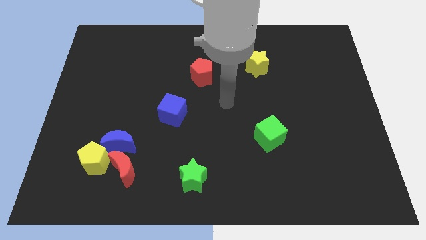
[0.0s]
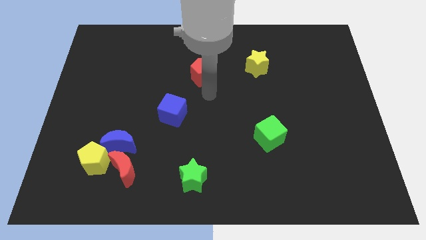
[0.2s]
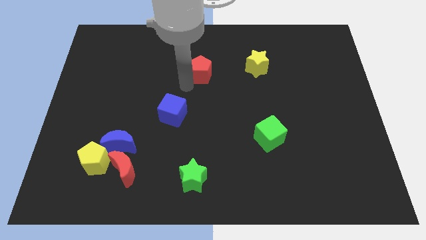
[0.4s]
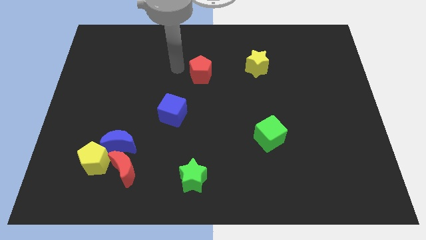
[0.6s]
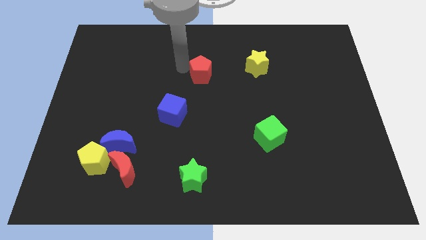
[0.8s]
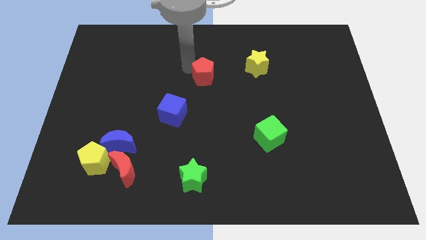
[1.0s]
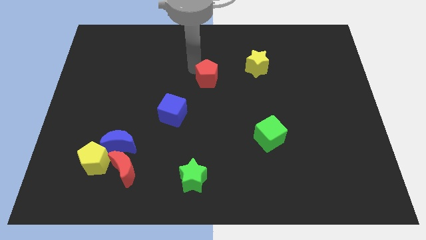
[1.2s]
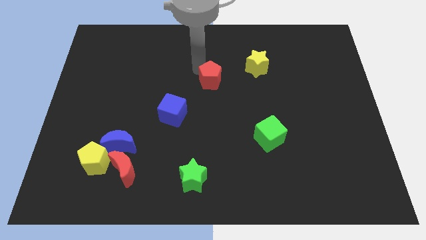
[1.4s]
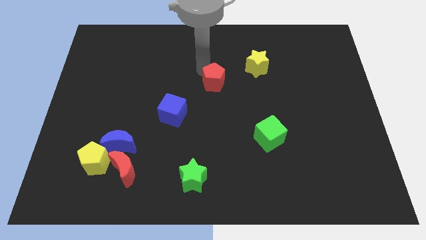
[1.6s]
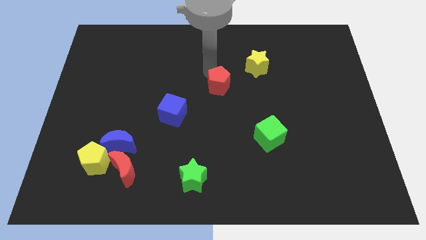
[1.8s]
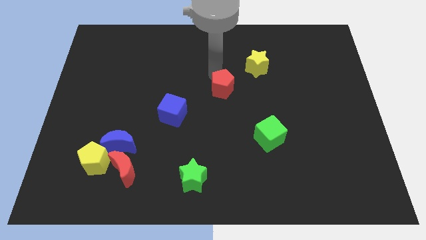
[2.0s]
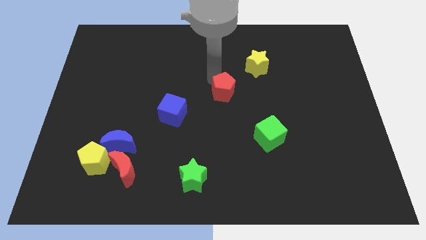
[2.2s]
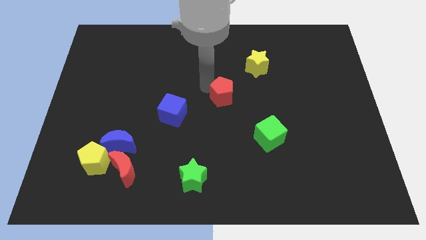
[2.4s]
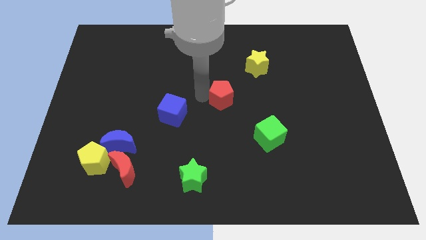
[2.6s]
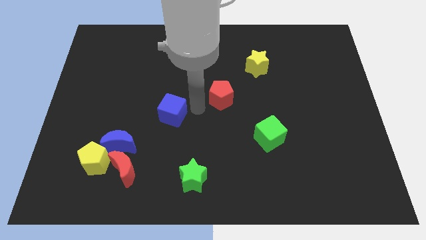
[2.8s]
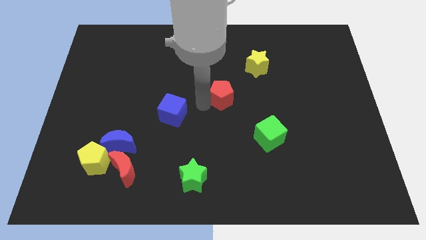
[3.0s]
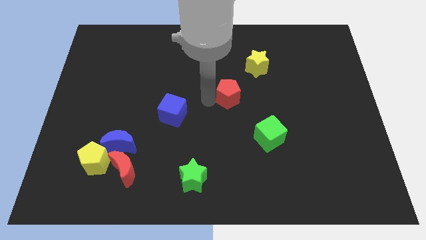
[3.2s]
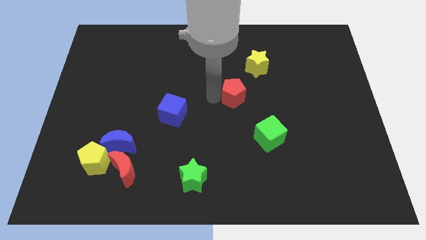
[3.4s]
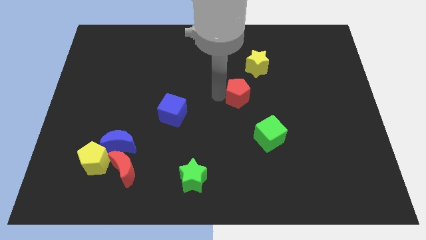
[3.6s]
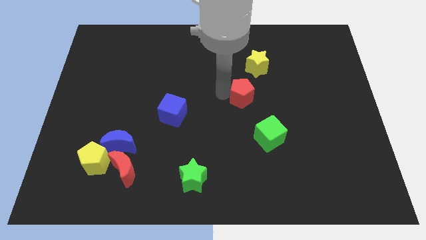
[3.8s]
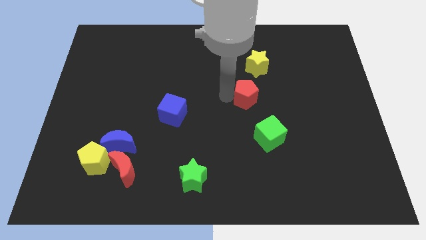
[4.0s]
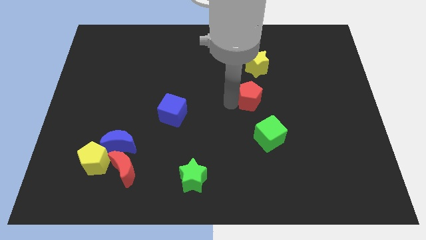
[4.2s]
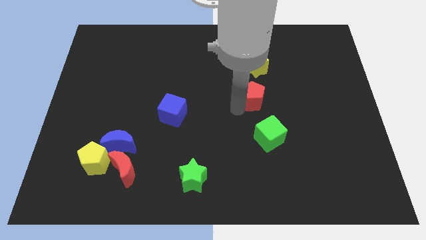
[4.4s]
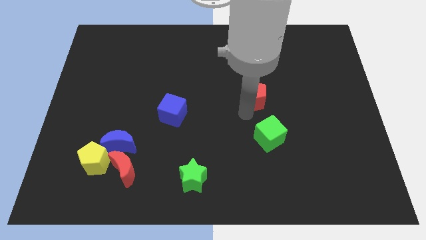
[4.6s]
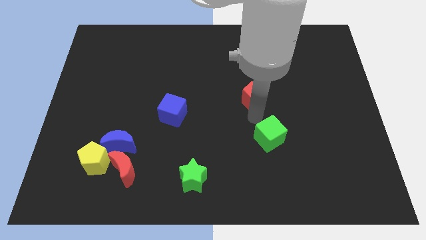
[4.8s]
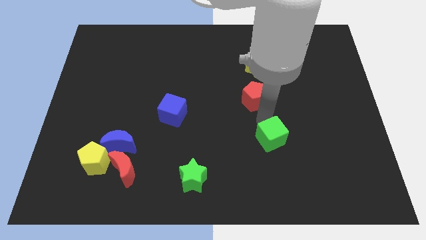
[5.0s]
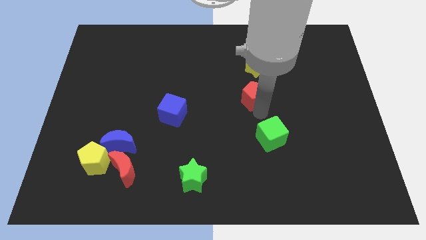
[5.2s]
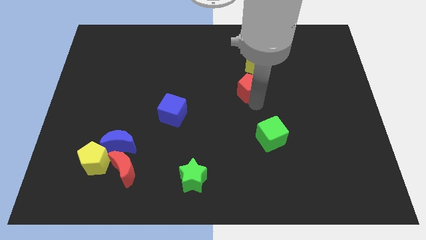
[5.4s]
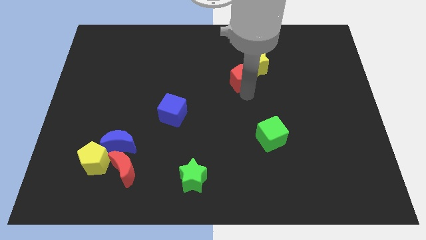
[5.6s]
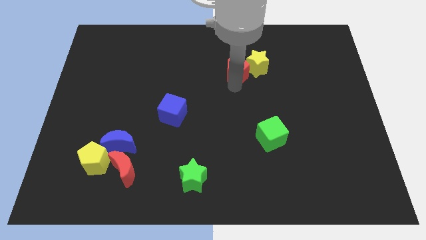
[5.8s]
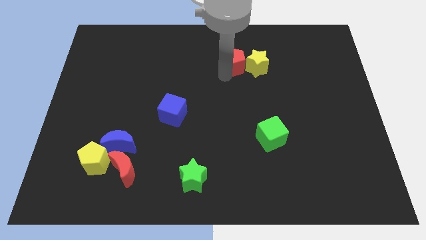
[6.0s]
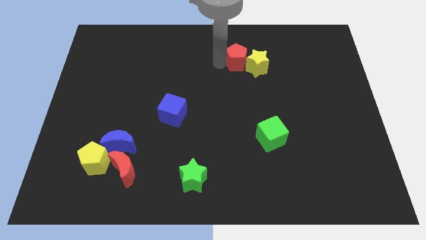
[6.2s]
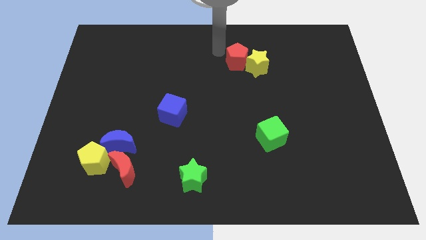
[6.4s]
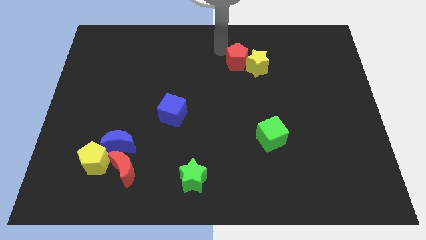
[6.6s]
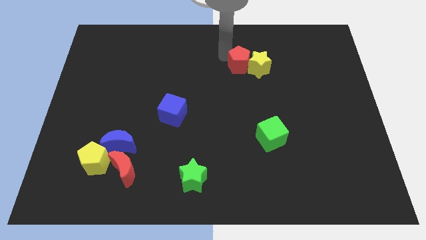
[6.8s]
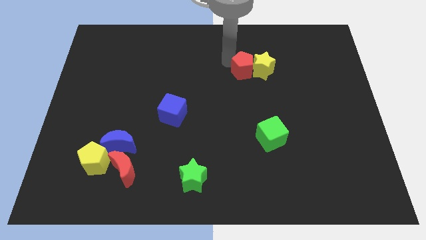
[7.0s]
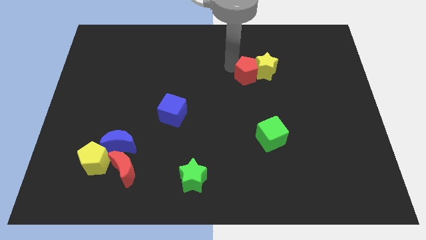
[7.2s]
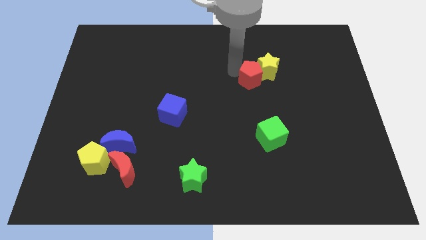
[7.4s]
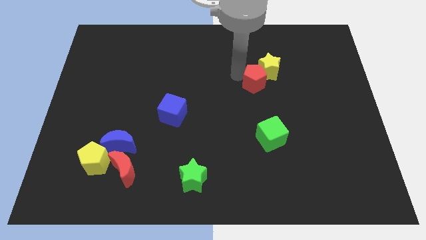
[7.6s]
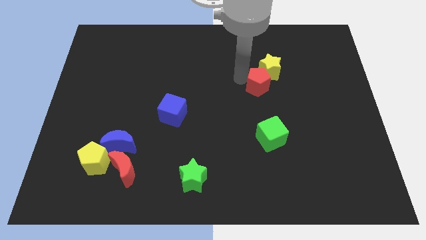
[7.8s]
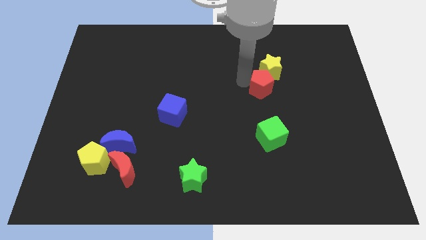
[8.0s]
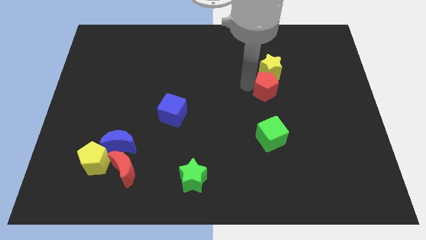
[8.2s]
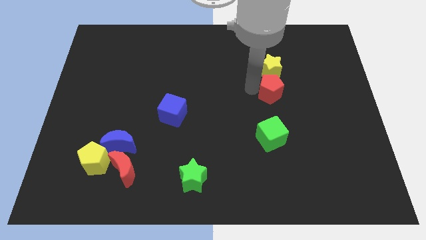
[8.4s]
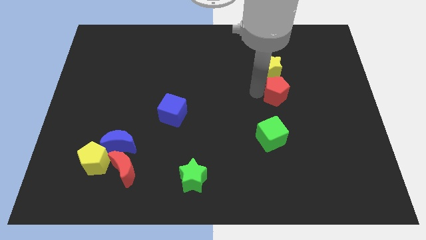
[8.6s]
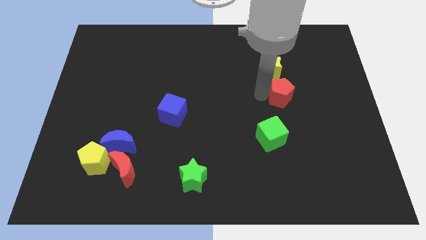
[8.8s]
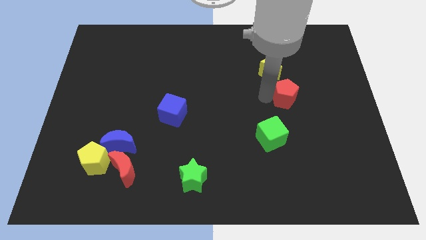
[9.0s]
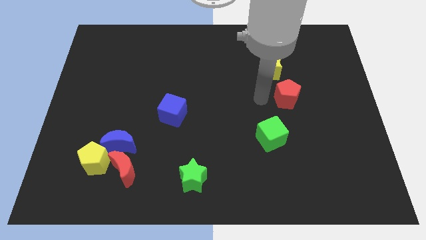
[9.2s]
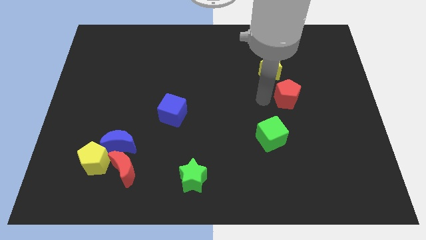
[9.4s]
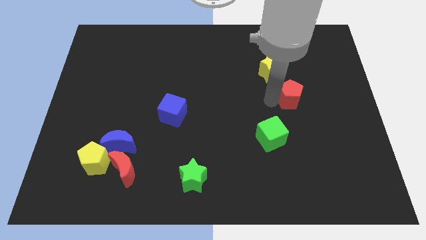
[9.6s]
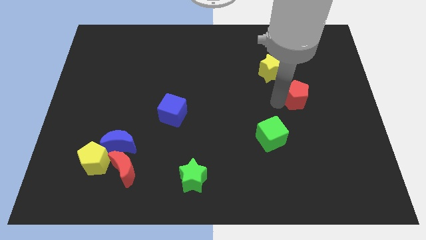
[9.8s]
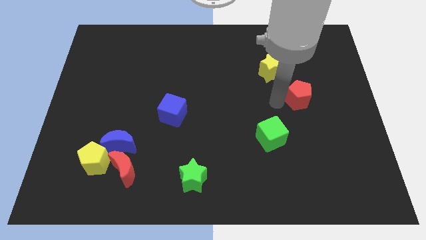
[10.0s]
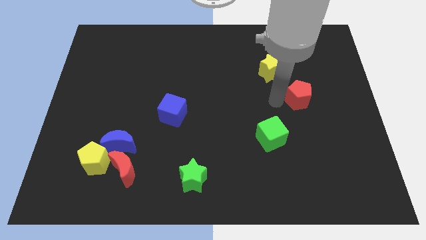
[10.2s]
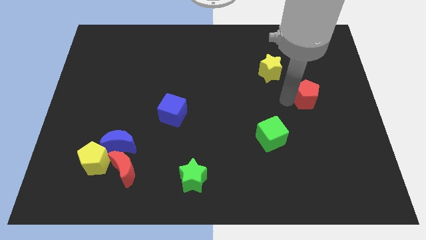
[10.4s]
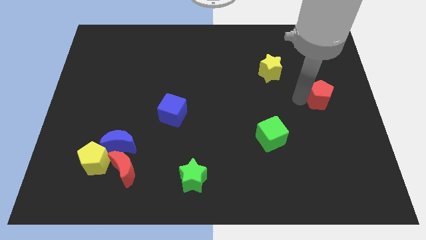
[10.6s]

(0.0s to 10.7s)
slide the red pentagon to the center right
